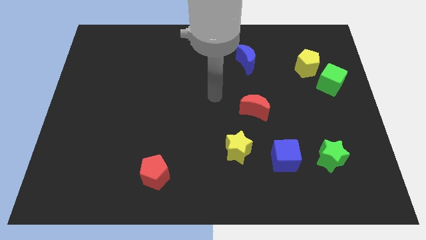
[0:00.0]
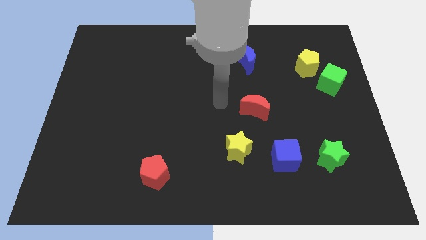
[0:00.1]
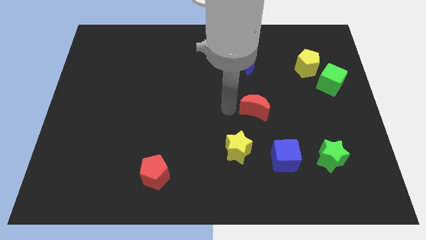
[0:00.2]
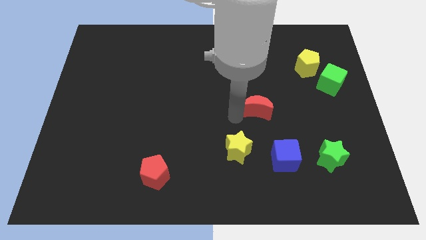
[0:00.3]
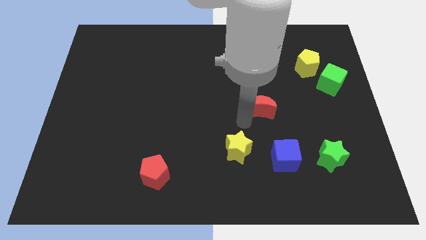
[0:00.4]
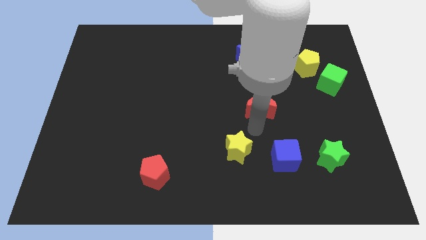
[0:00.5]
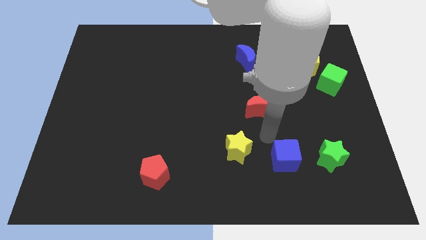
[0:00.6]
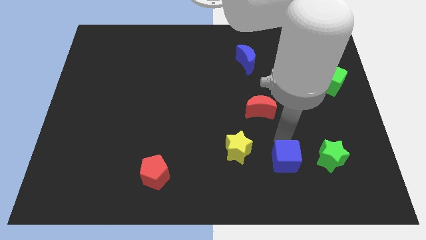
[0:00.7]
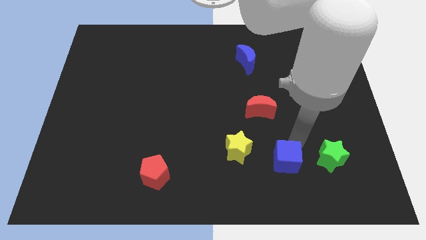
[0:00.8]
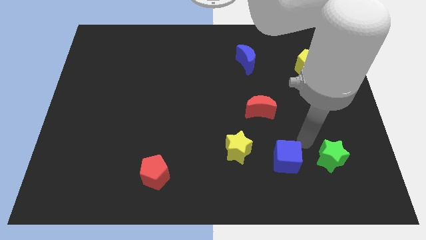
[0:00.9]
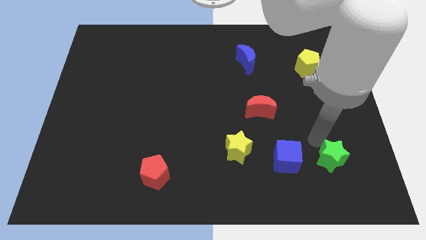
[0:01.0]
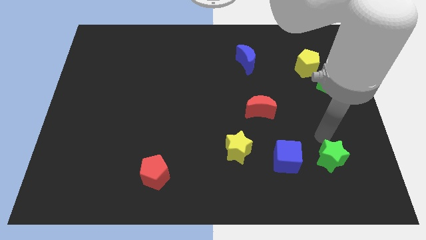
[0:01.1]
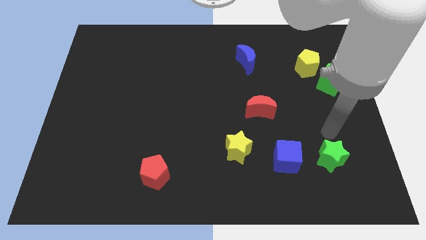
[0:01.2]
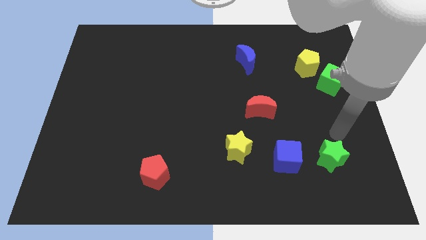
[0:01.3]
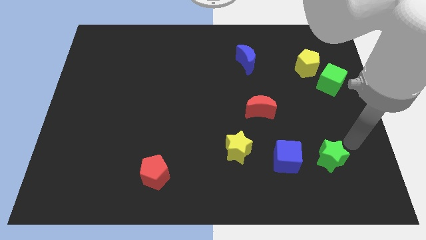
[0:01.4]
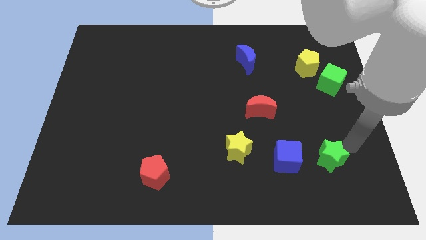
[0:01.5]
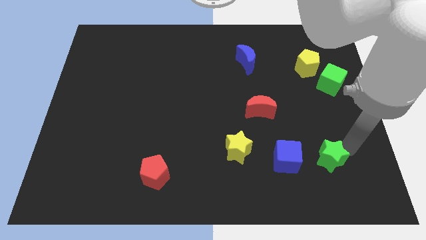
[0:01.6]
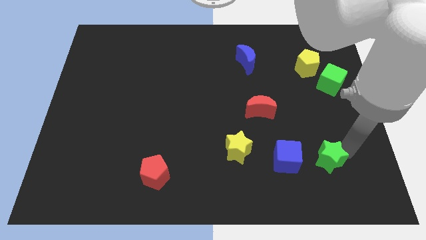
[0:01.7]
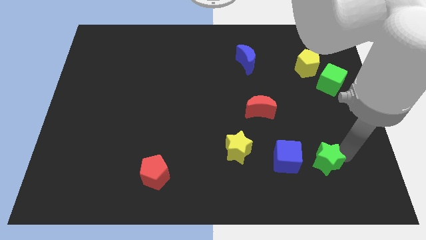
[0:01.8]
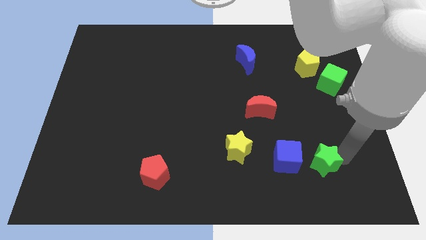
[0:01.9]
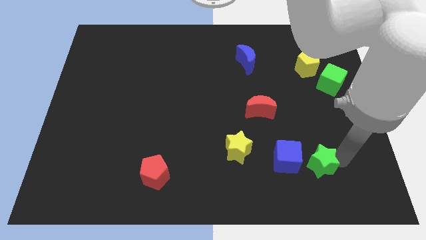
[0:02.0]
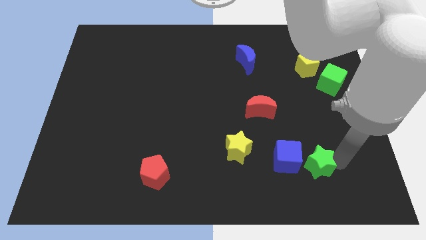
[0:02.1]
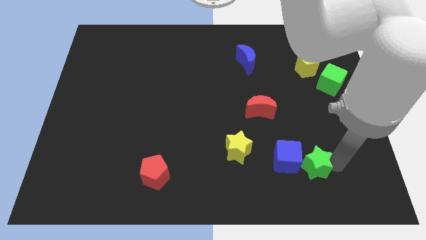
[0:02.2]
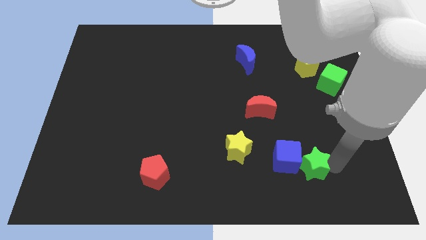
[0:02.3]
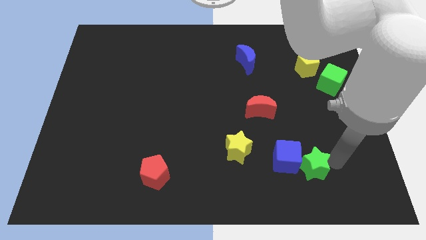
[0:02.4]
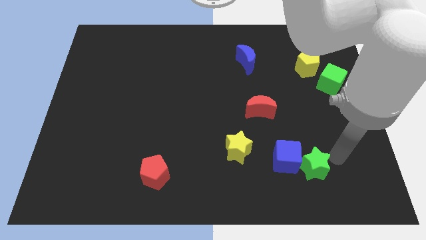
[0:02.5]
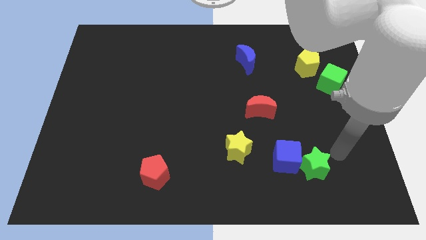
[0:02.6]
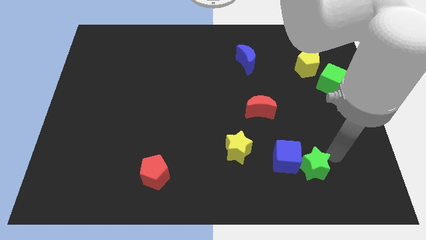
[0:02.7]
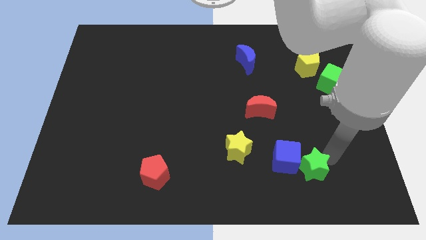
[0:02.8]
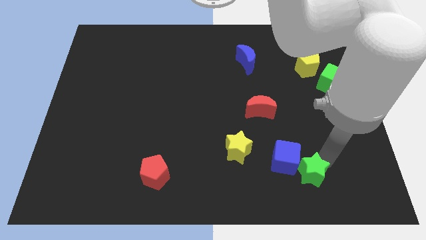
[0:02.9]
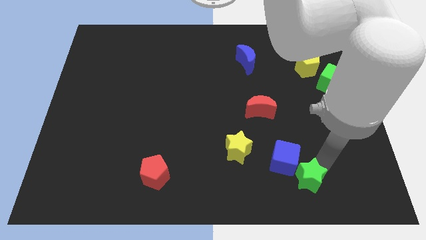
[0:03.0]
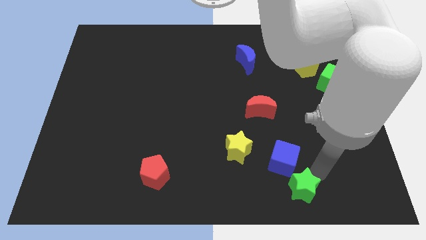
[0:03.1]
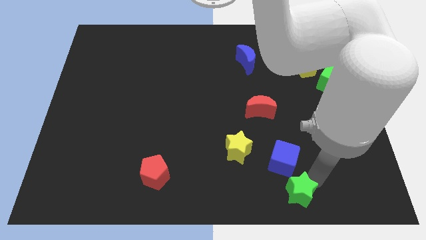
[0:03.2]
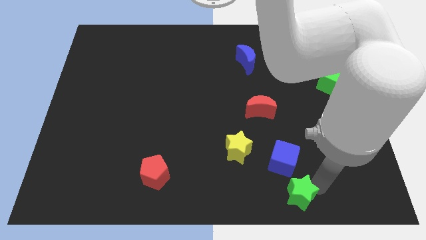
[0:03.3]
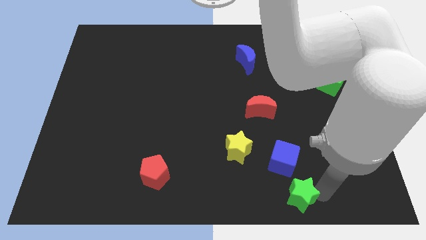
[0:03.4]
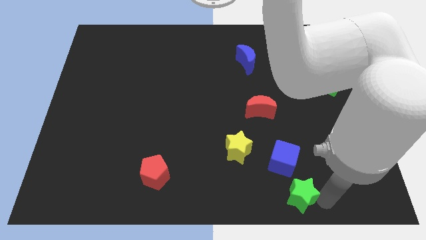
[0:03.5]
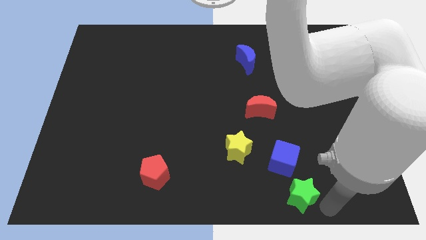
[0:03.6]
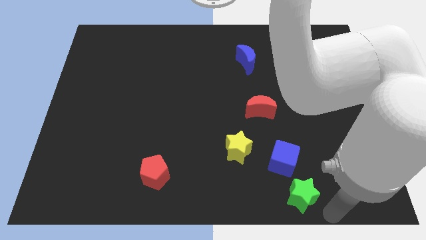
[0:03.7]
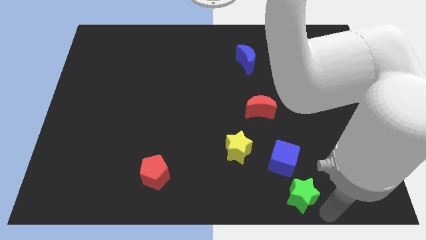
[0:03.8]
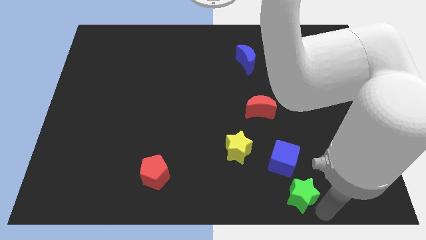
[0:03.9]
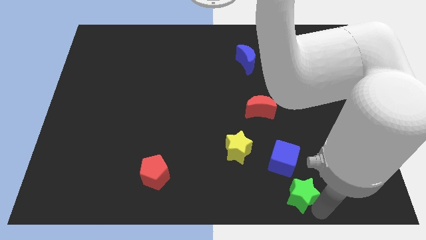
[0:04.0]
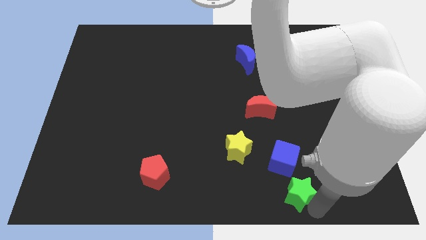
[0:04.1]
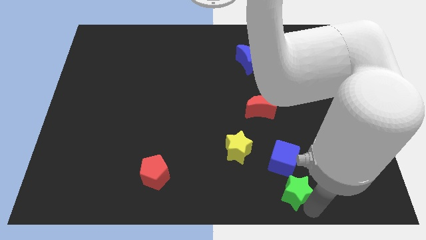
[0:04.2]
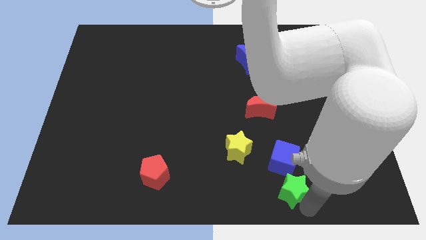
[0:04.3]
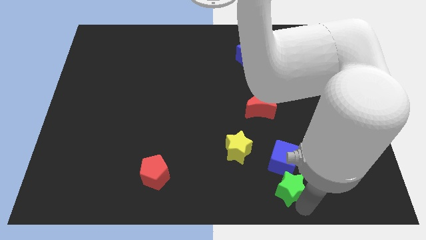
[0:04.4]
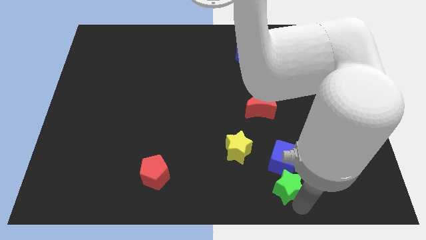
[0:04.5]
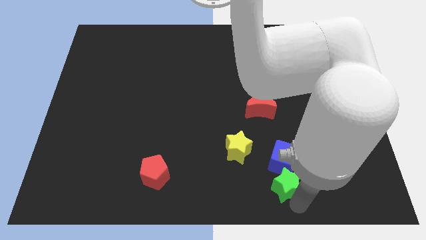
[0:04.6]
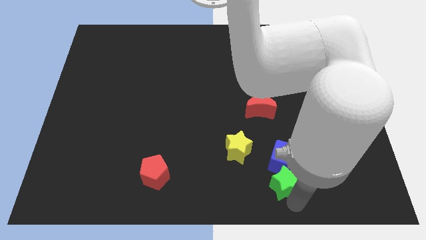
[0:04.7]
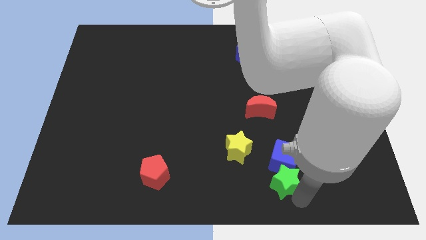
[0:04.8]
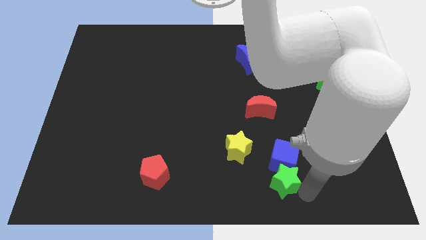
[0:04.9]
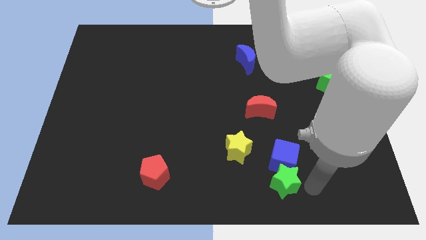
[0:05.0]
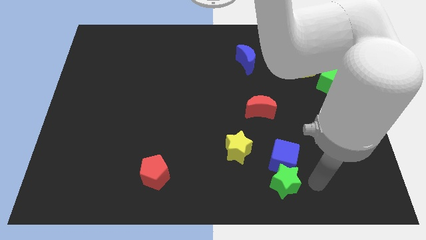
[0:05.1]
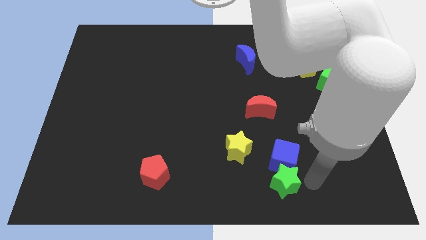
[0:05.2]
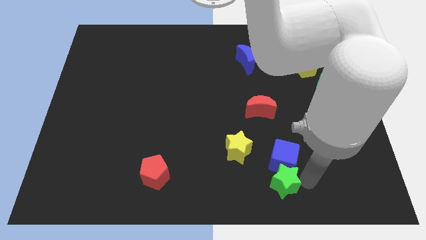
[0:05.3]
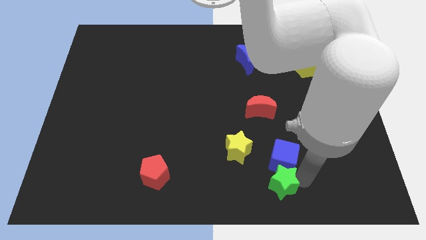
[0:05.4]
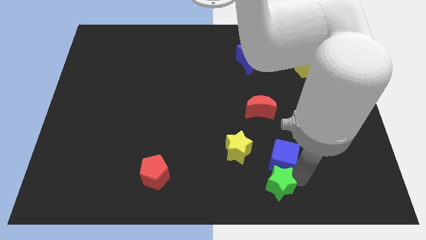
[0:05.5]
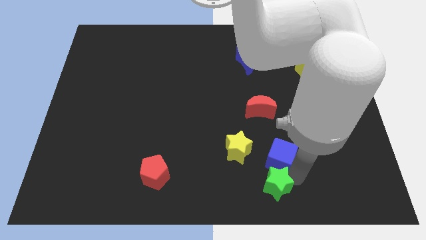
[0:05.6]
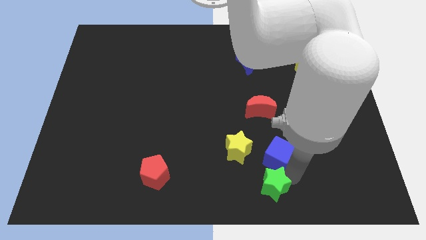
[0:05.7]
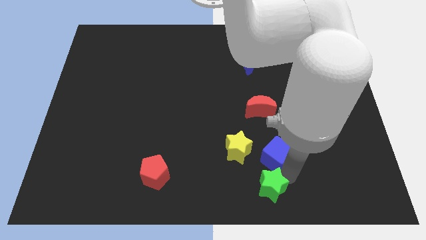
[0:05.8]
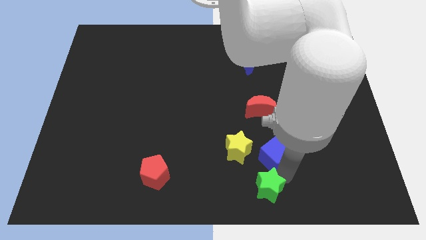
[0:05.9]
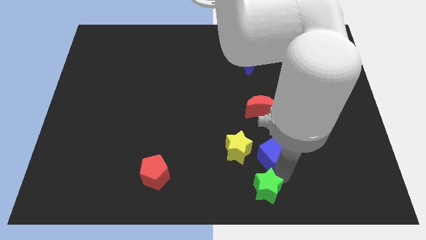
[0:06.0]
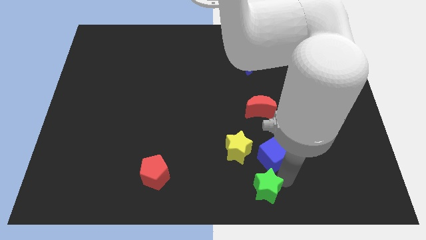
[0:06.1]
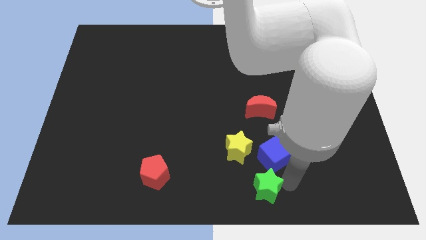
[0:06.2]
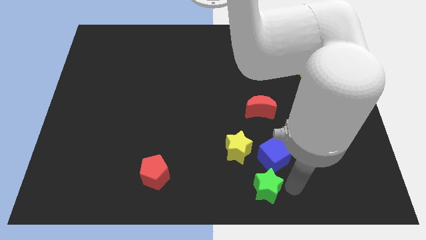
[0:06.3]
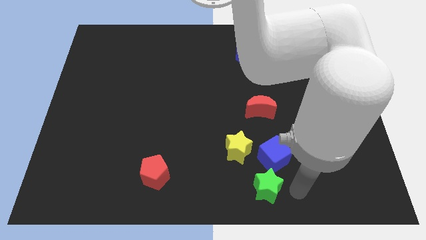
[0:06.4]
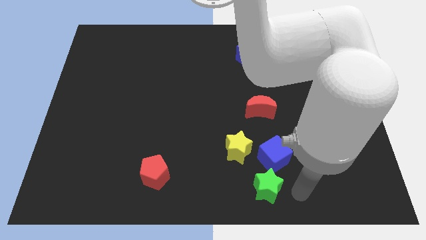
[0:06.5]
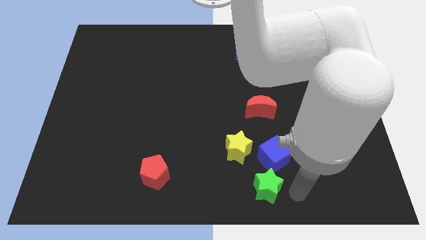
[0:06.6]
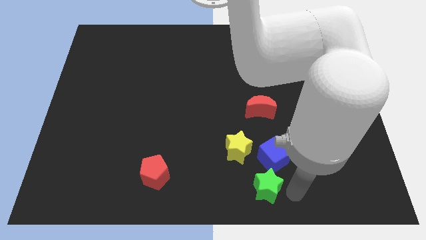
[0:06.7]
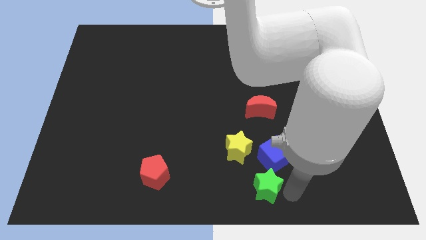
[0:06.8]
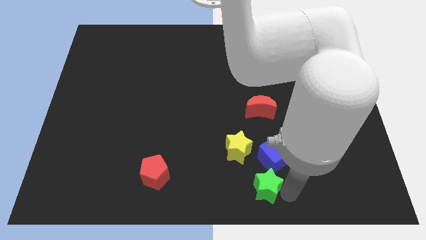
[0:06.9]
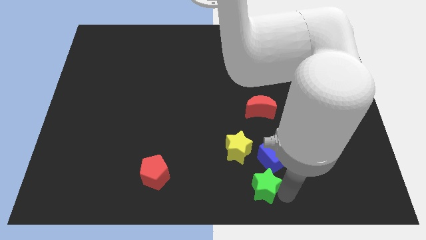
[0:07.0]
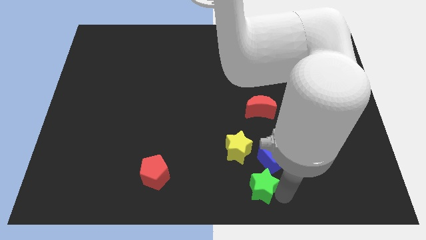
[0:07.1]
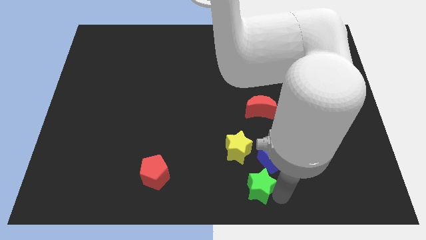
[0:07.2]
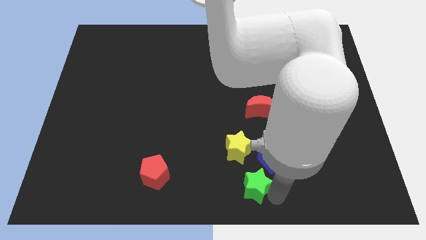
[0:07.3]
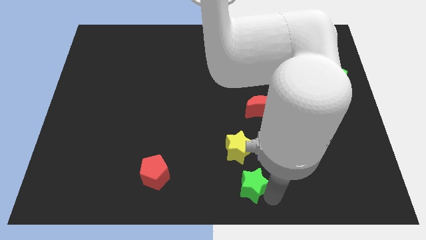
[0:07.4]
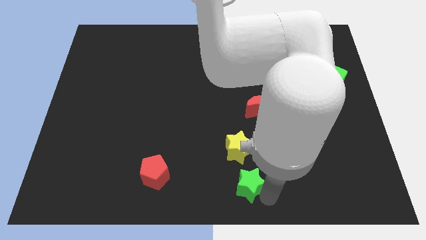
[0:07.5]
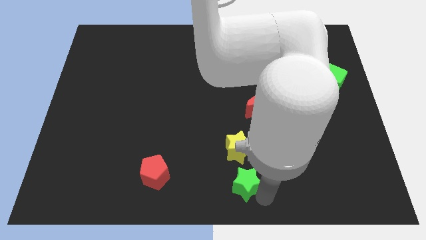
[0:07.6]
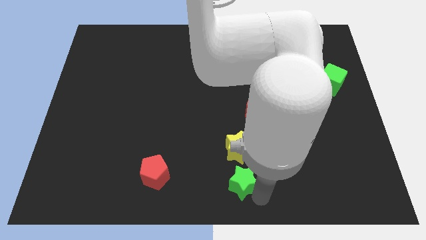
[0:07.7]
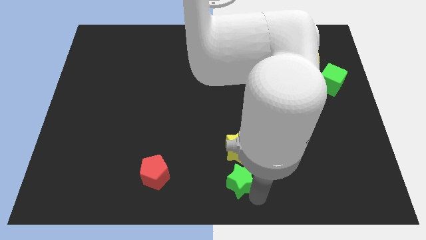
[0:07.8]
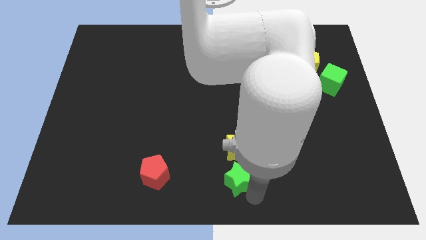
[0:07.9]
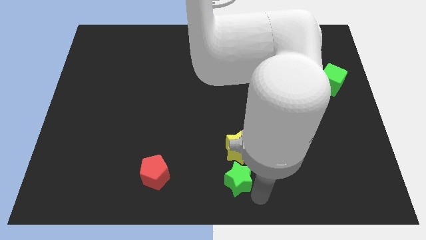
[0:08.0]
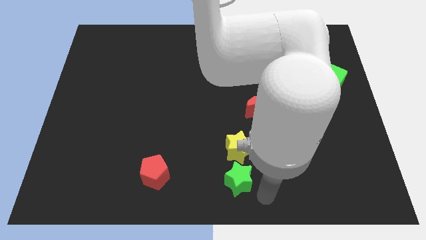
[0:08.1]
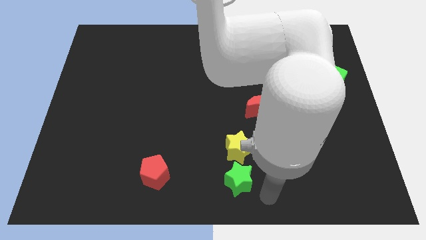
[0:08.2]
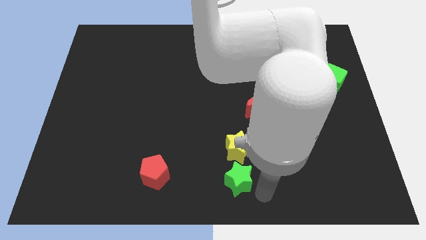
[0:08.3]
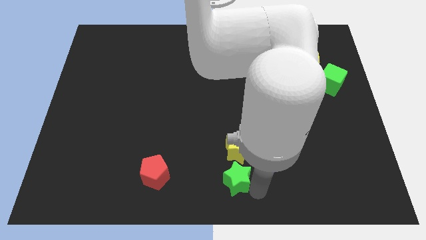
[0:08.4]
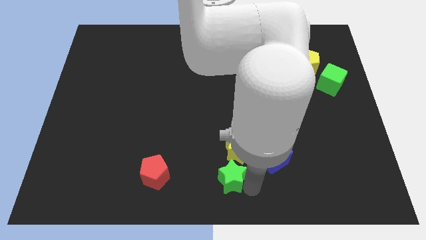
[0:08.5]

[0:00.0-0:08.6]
slide the green star to the left
